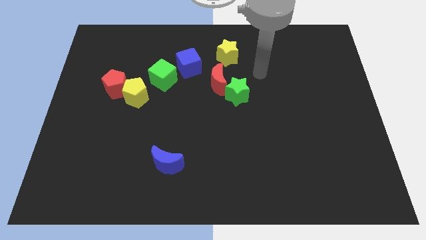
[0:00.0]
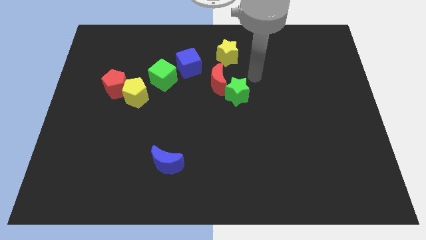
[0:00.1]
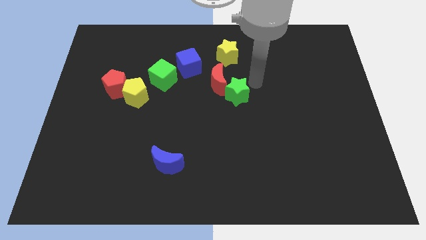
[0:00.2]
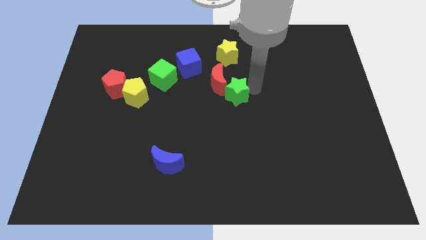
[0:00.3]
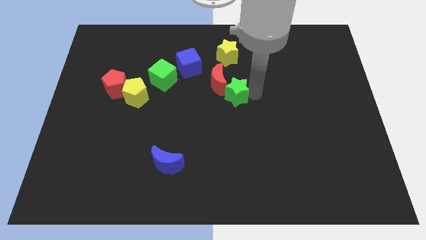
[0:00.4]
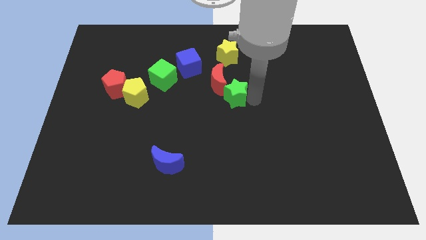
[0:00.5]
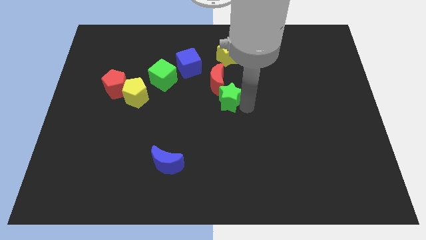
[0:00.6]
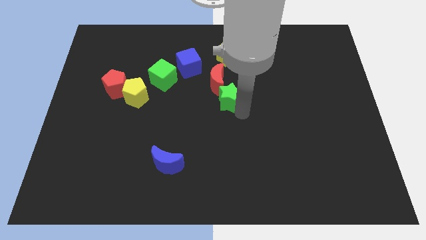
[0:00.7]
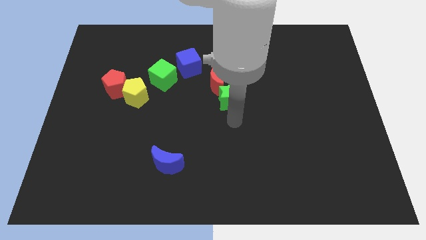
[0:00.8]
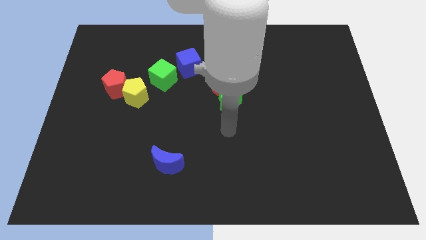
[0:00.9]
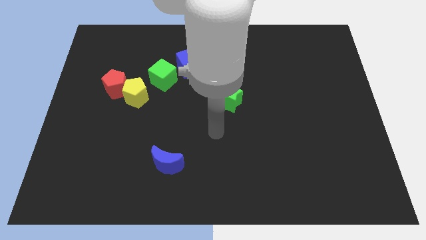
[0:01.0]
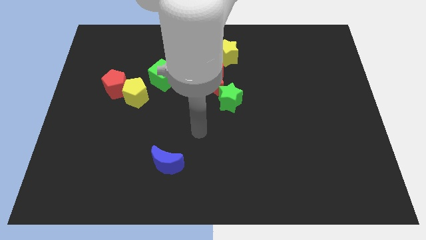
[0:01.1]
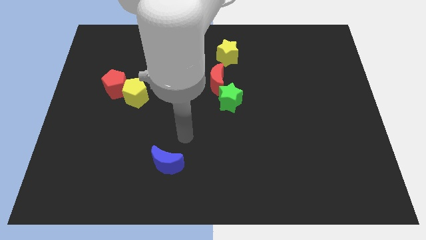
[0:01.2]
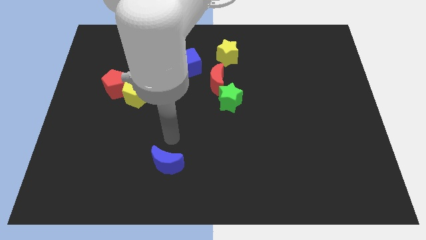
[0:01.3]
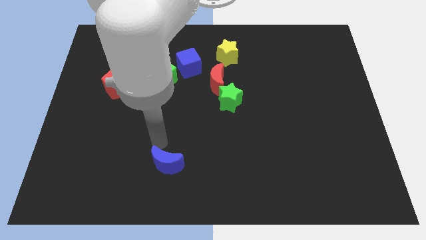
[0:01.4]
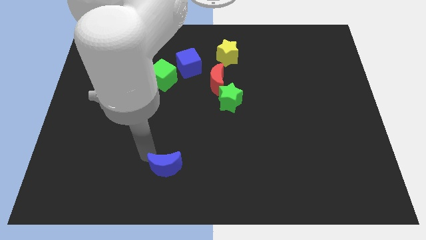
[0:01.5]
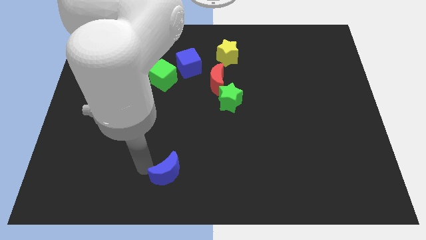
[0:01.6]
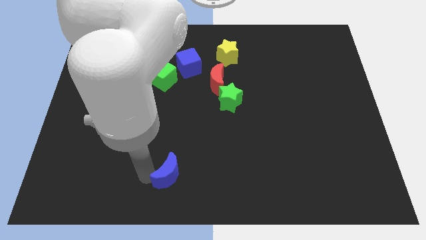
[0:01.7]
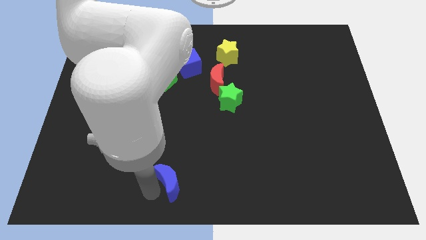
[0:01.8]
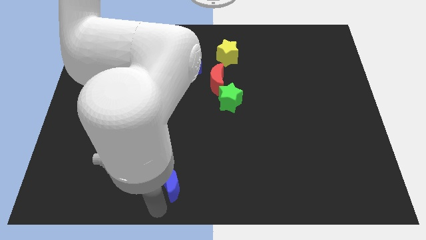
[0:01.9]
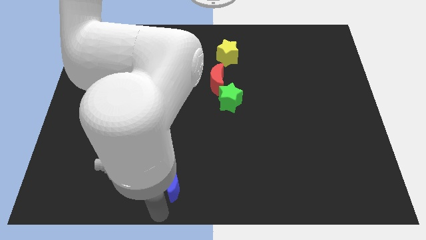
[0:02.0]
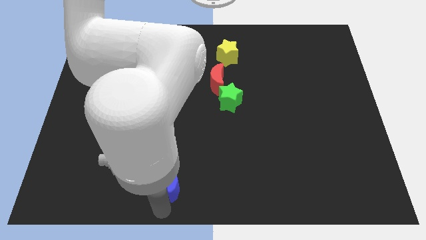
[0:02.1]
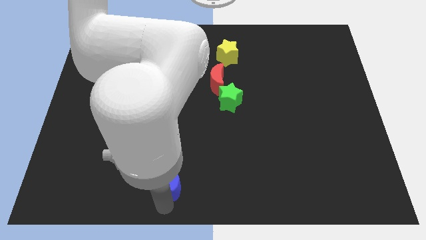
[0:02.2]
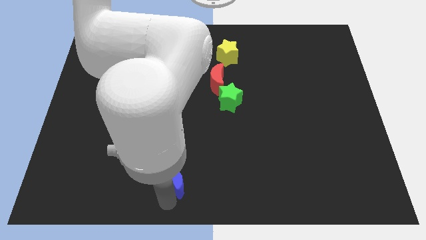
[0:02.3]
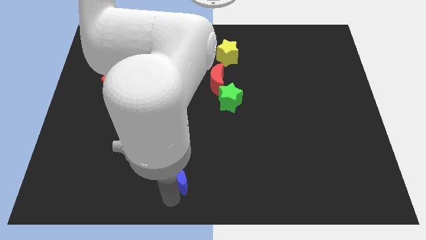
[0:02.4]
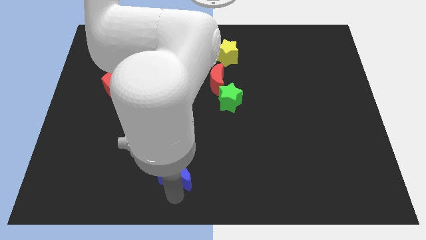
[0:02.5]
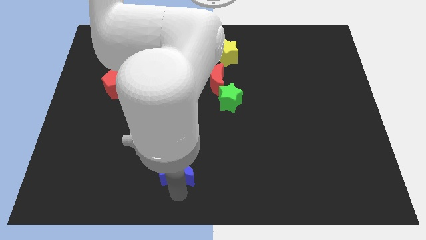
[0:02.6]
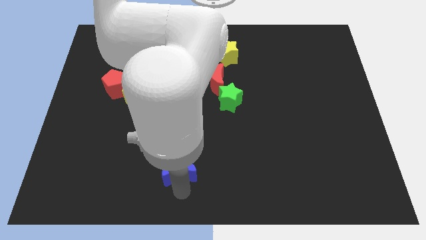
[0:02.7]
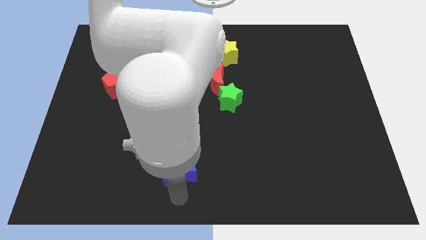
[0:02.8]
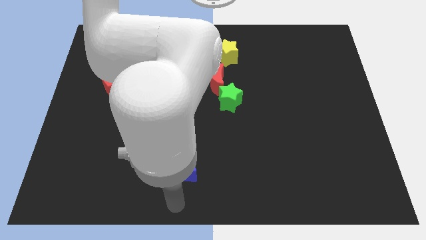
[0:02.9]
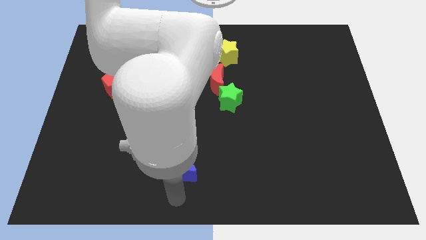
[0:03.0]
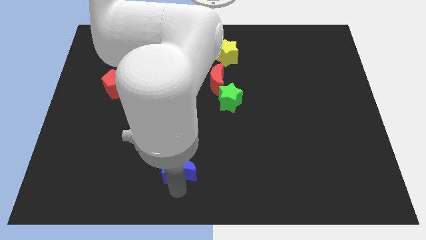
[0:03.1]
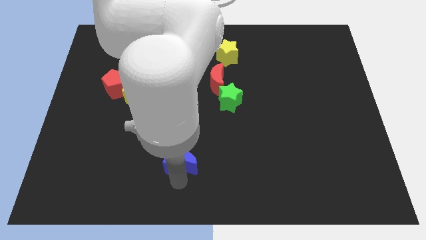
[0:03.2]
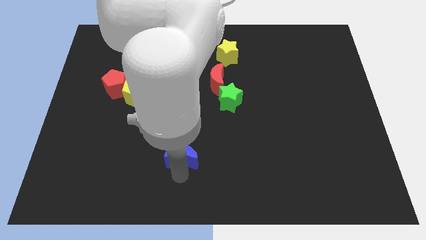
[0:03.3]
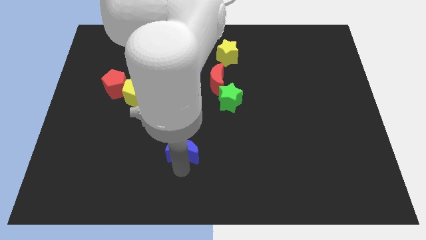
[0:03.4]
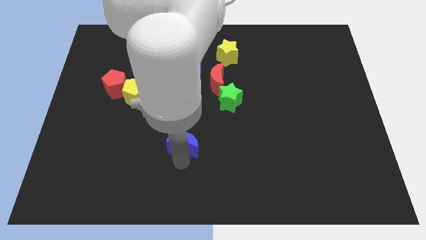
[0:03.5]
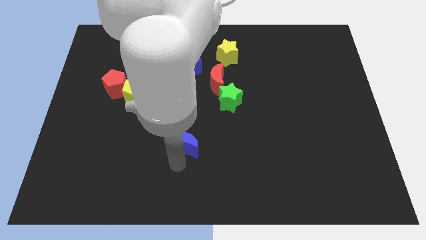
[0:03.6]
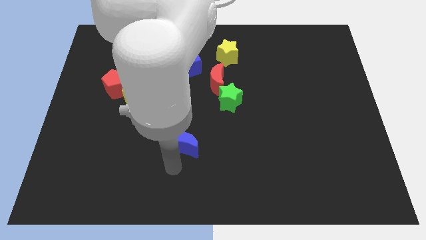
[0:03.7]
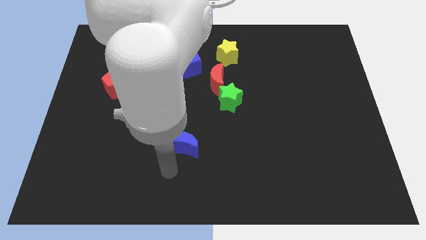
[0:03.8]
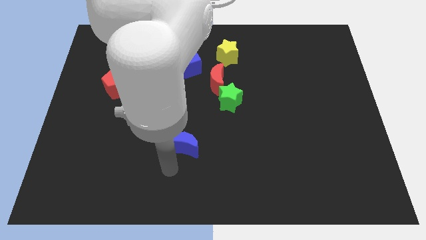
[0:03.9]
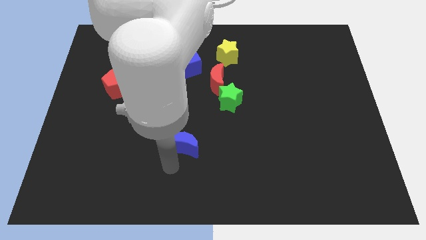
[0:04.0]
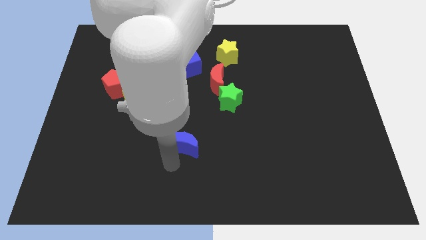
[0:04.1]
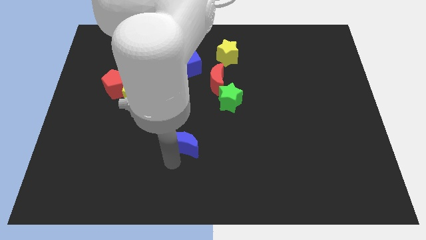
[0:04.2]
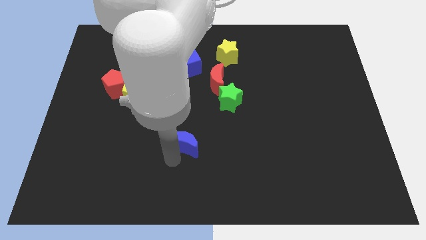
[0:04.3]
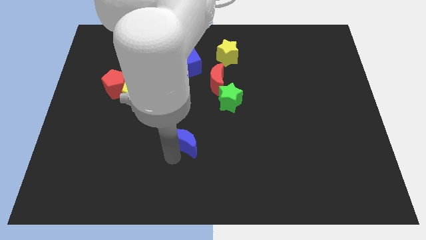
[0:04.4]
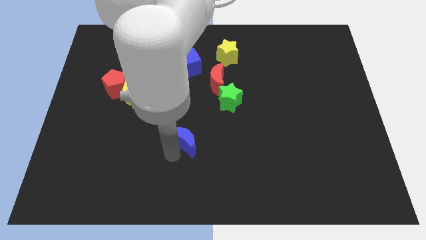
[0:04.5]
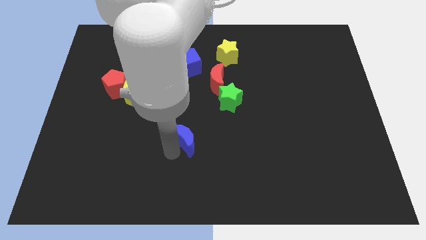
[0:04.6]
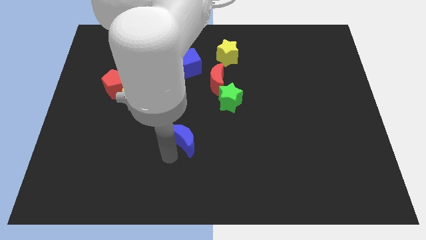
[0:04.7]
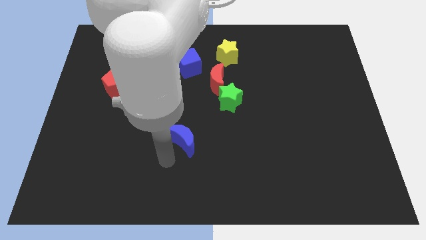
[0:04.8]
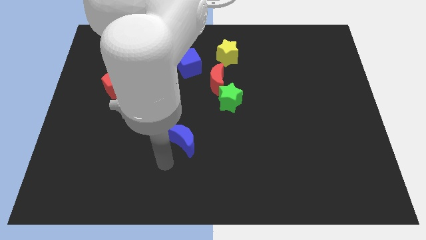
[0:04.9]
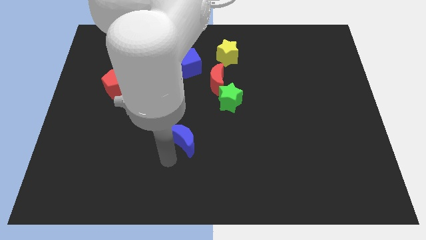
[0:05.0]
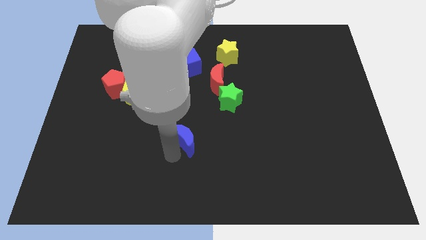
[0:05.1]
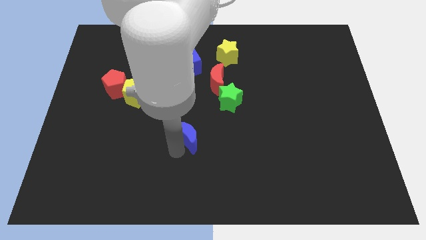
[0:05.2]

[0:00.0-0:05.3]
put the blue moon to the middle

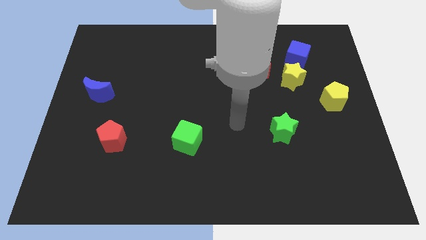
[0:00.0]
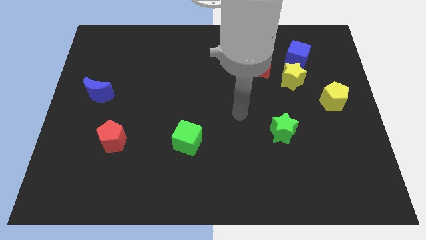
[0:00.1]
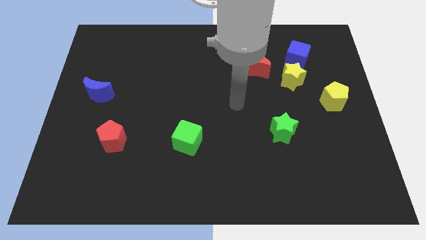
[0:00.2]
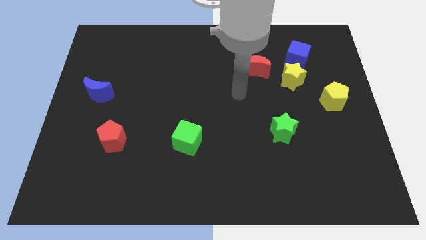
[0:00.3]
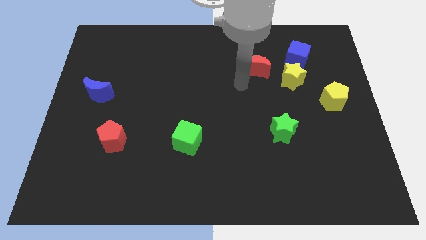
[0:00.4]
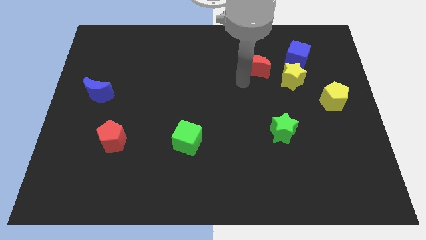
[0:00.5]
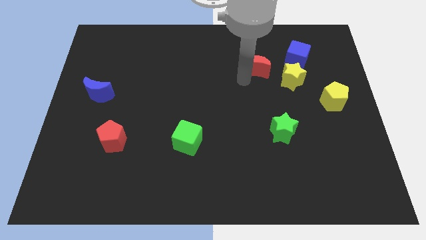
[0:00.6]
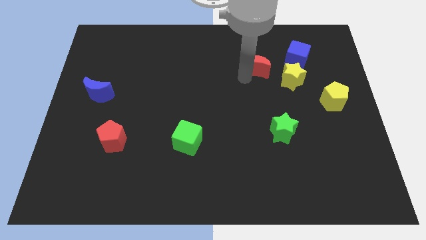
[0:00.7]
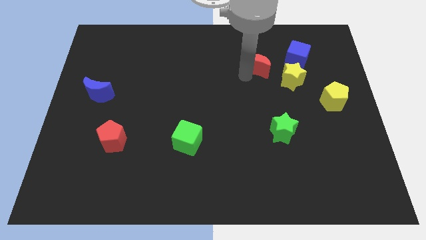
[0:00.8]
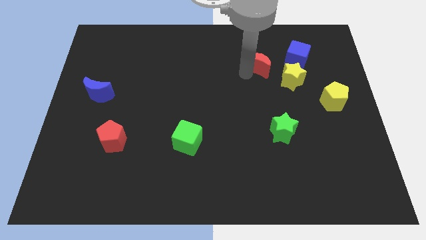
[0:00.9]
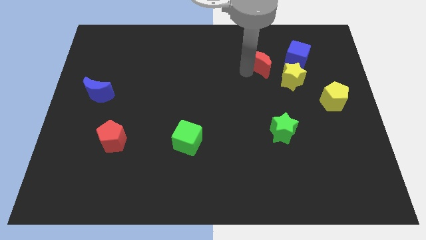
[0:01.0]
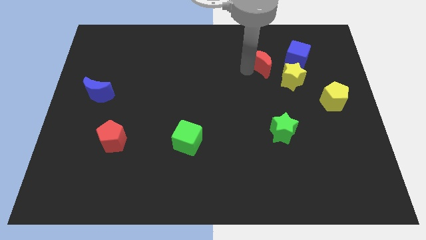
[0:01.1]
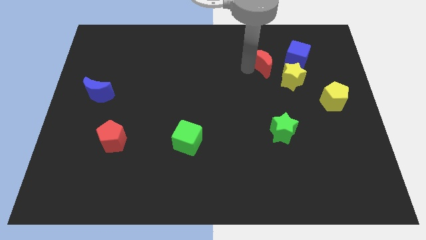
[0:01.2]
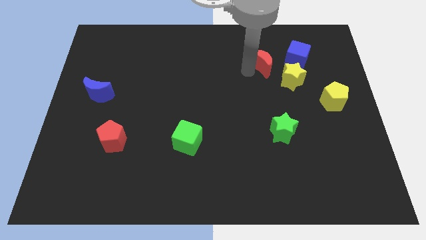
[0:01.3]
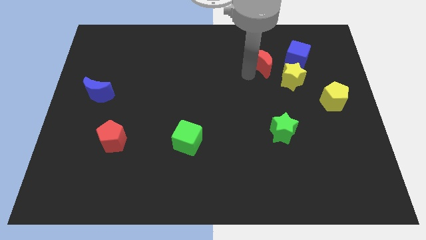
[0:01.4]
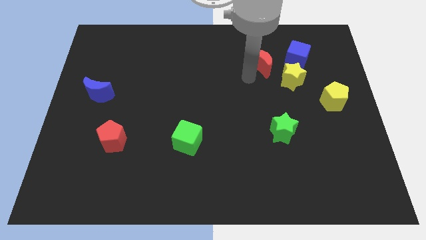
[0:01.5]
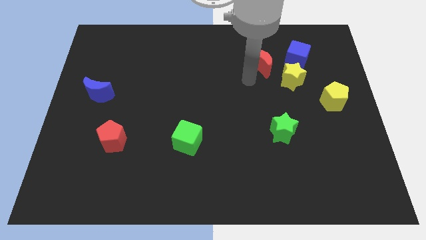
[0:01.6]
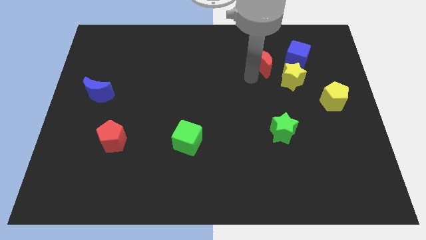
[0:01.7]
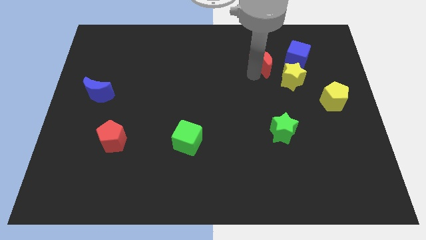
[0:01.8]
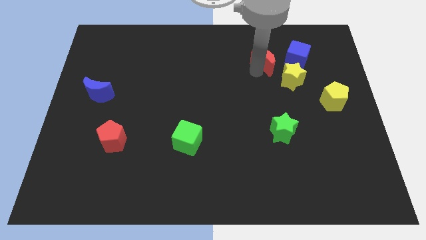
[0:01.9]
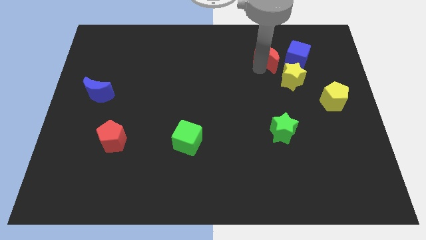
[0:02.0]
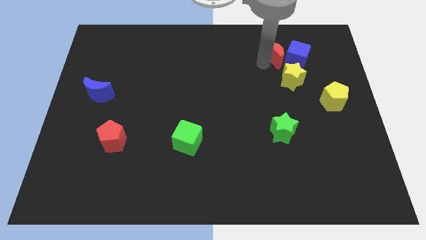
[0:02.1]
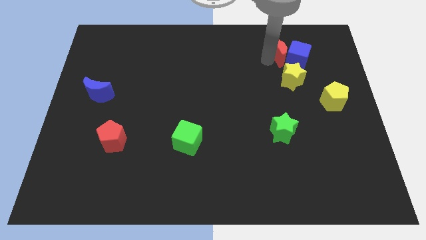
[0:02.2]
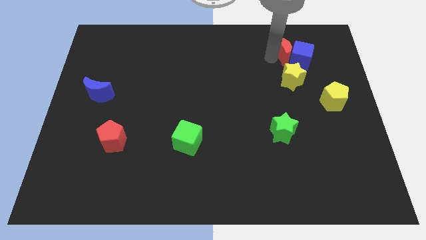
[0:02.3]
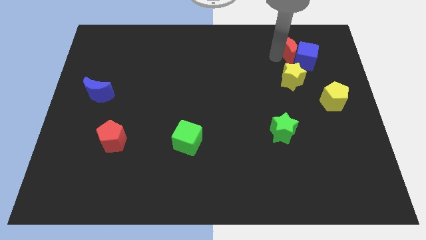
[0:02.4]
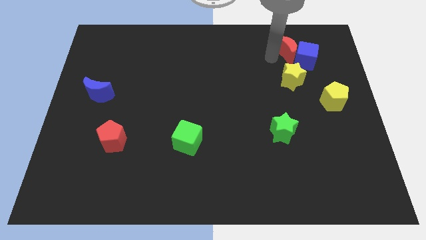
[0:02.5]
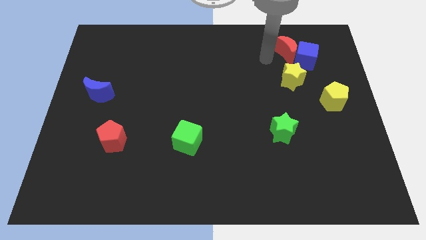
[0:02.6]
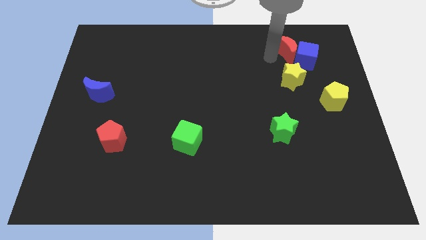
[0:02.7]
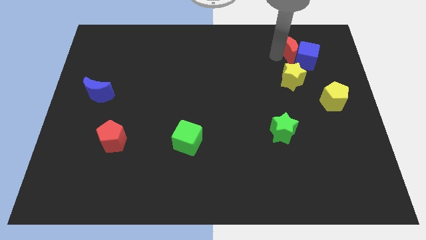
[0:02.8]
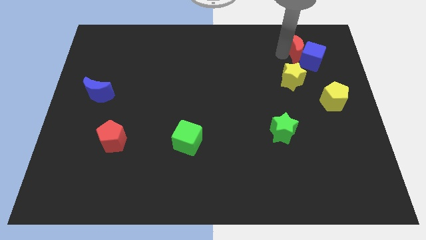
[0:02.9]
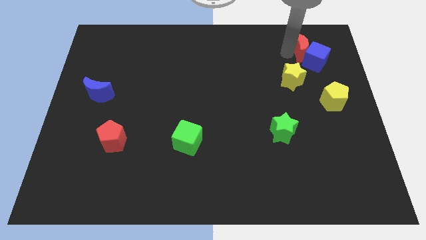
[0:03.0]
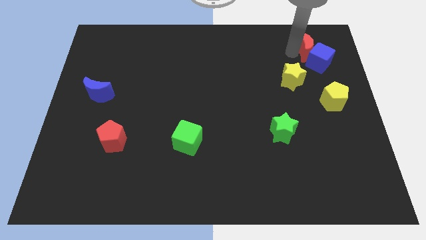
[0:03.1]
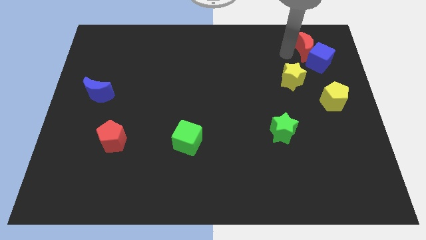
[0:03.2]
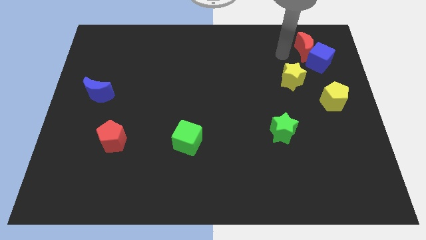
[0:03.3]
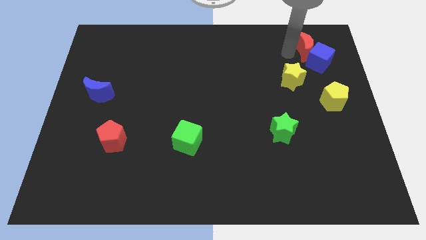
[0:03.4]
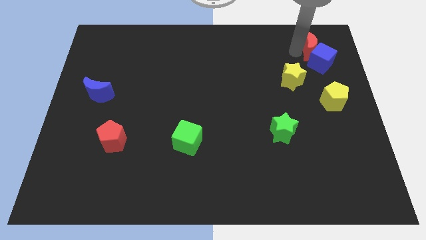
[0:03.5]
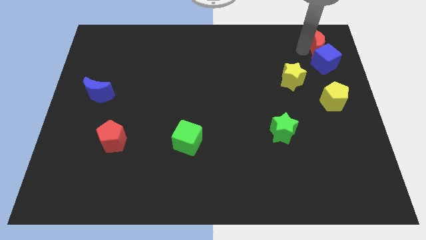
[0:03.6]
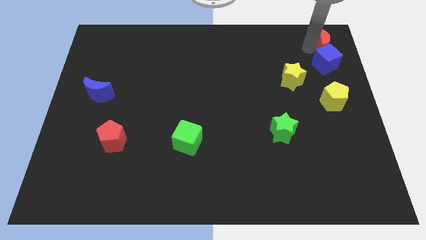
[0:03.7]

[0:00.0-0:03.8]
push the red moon to the upper right corner
